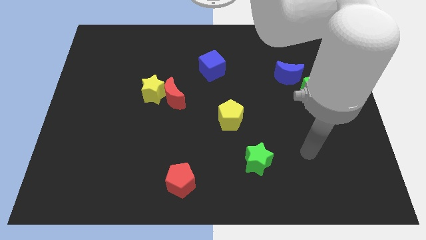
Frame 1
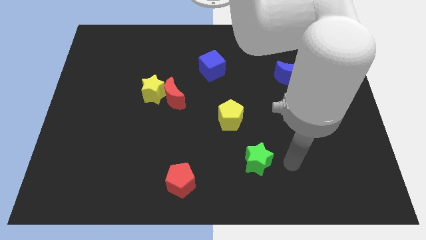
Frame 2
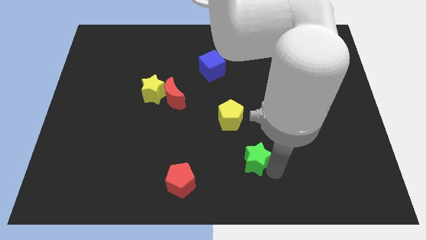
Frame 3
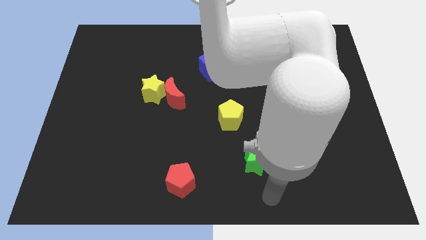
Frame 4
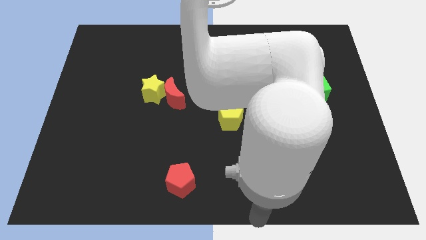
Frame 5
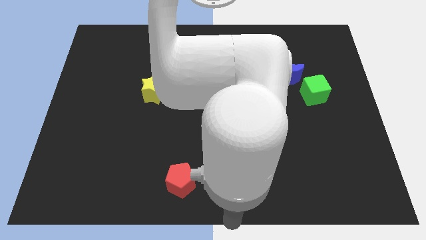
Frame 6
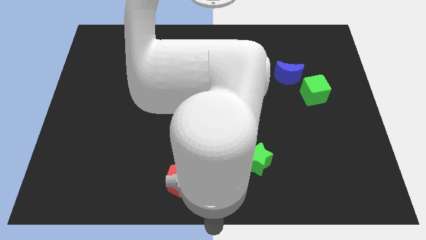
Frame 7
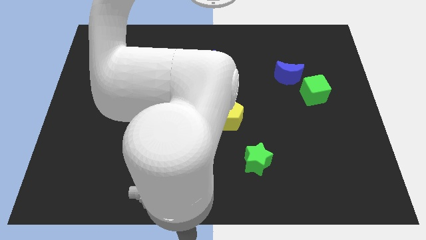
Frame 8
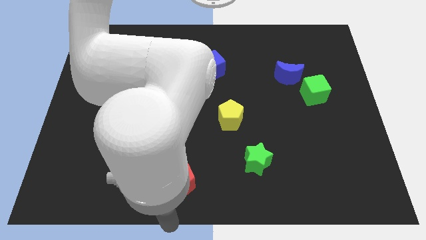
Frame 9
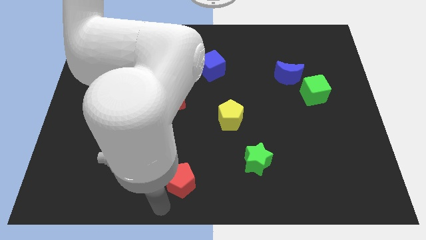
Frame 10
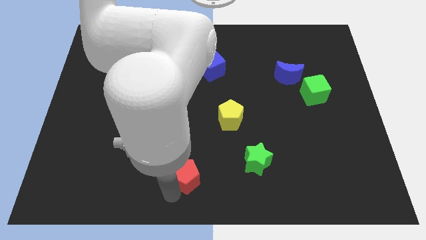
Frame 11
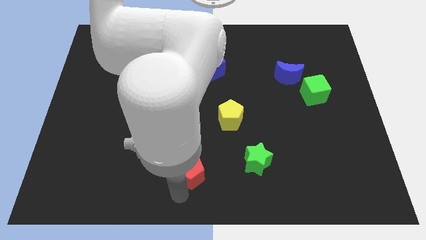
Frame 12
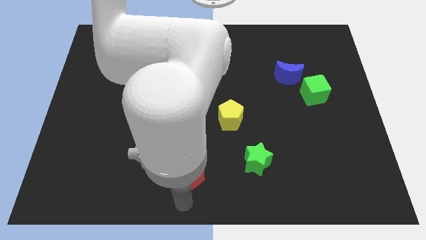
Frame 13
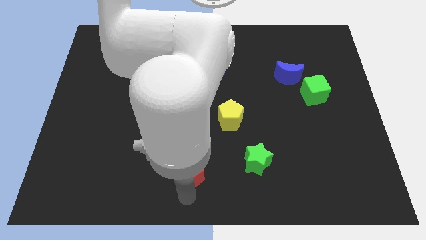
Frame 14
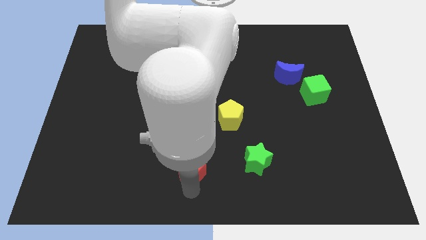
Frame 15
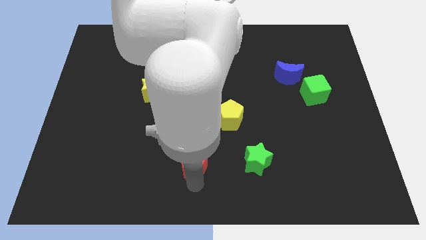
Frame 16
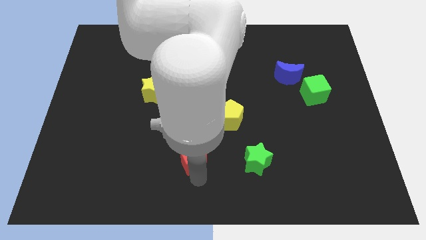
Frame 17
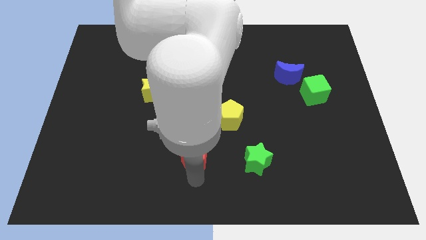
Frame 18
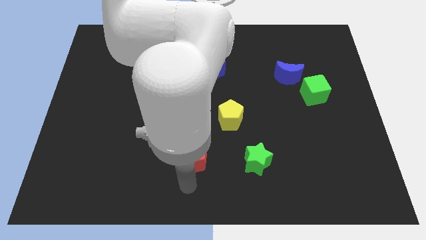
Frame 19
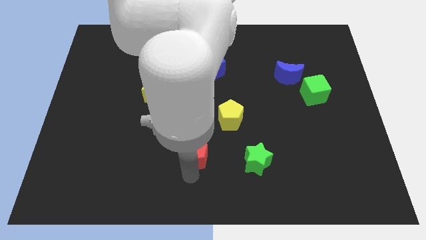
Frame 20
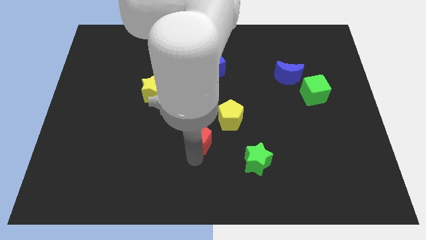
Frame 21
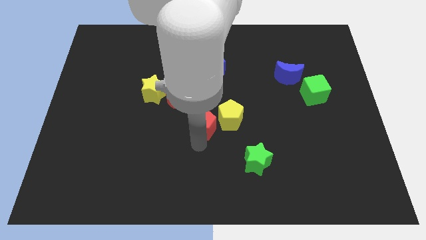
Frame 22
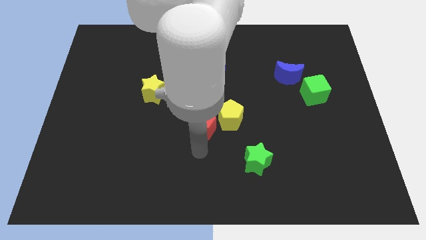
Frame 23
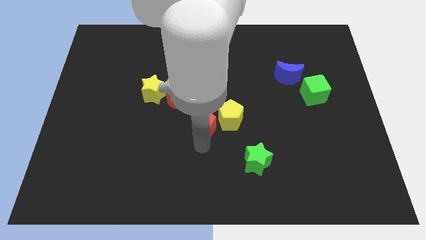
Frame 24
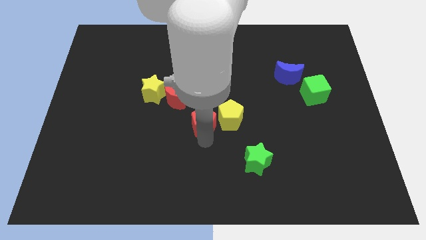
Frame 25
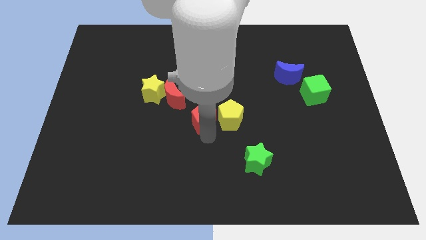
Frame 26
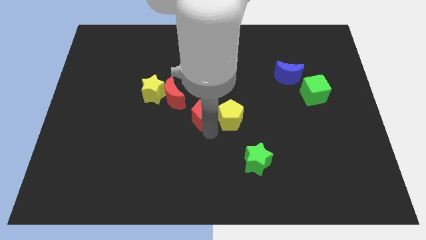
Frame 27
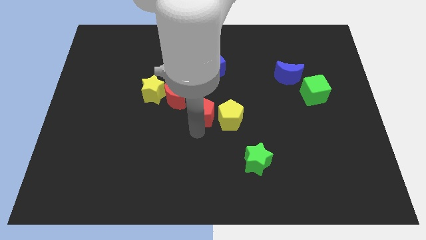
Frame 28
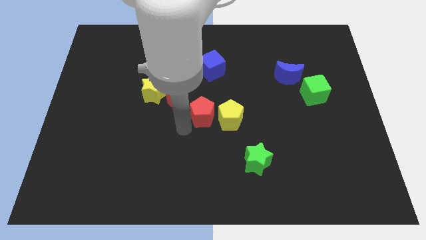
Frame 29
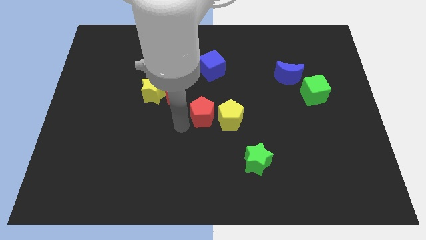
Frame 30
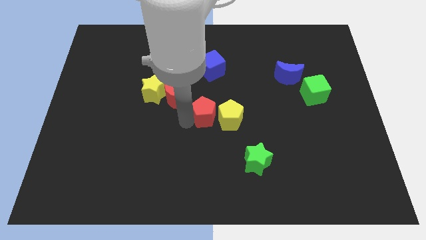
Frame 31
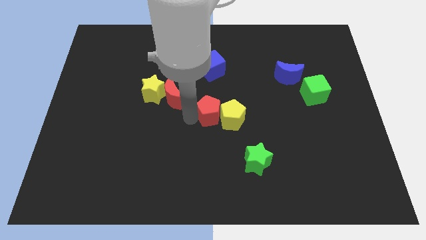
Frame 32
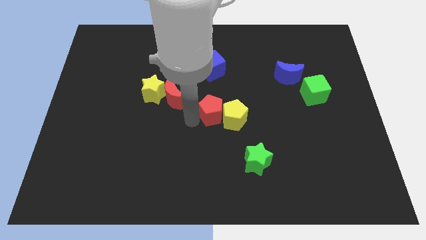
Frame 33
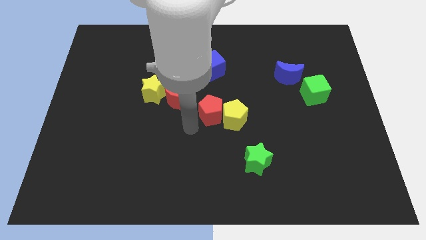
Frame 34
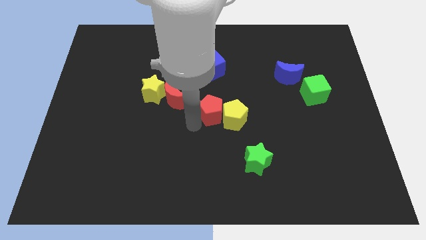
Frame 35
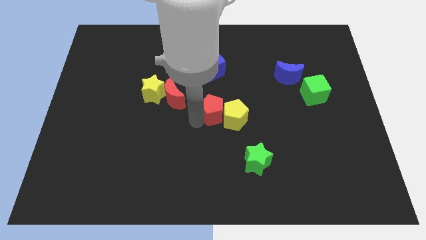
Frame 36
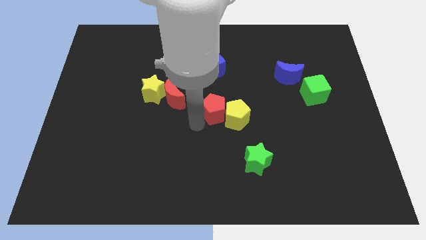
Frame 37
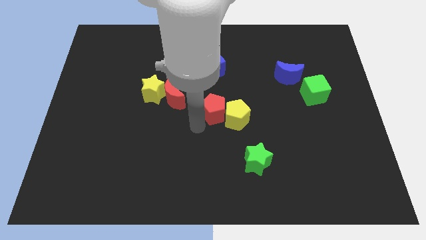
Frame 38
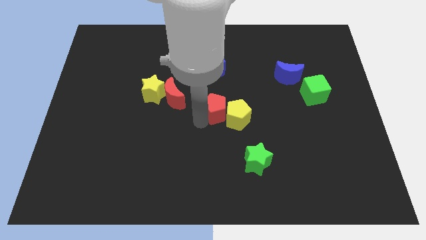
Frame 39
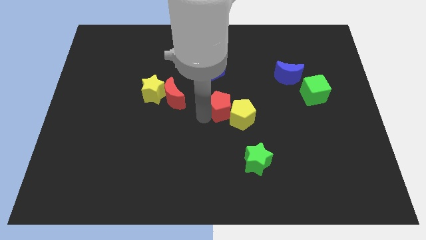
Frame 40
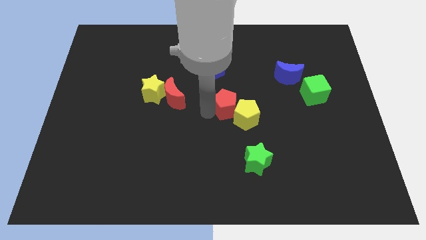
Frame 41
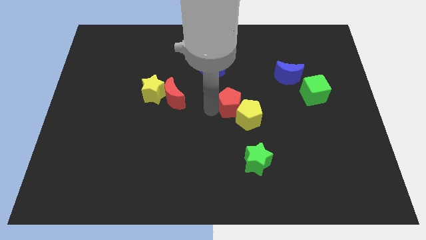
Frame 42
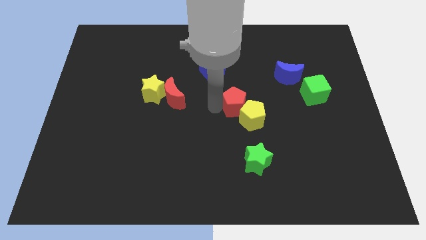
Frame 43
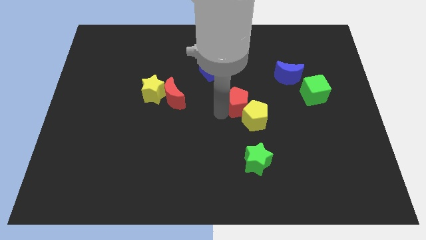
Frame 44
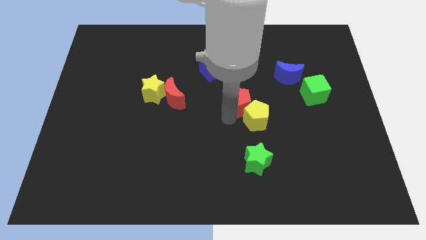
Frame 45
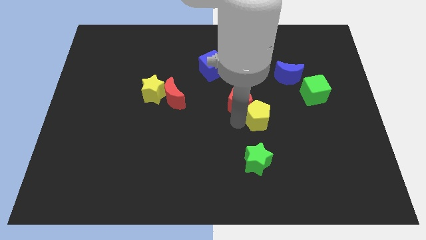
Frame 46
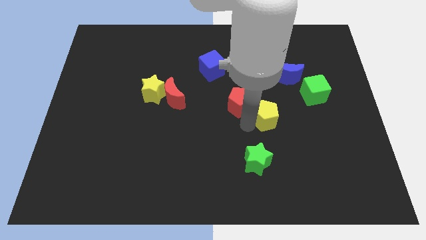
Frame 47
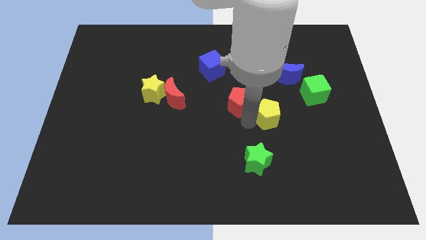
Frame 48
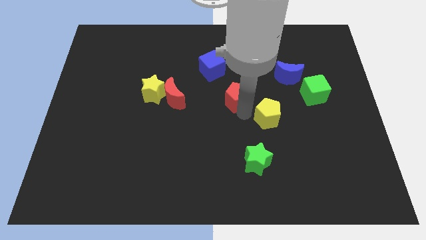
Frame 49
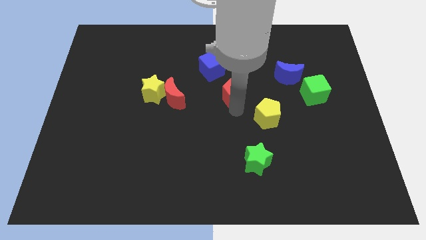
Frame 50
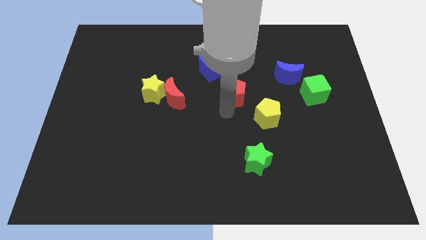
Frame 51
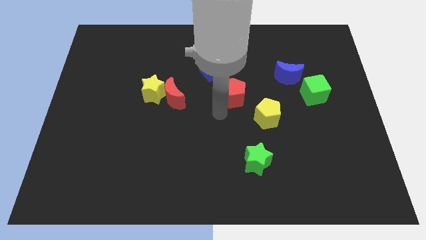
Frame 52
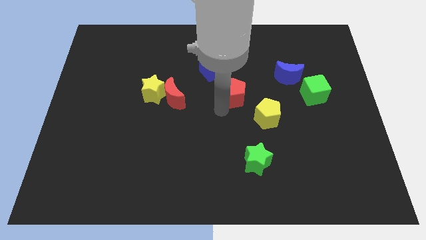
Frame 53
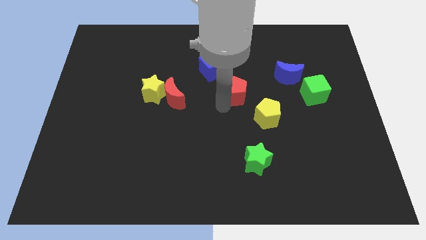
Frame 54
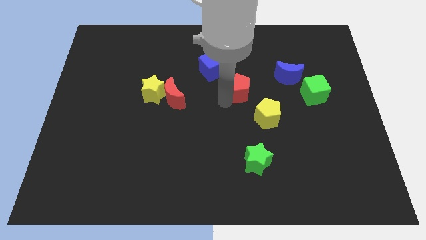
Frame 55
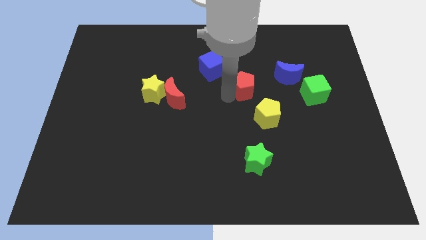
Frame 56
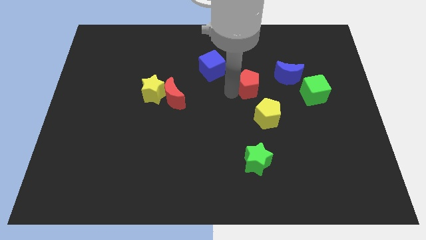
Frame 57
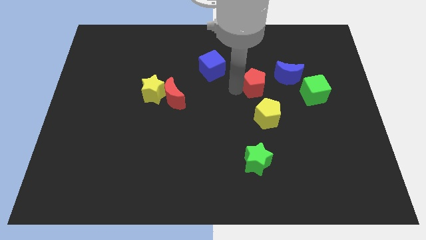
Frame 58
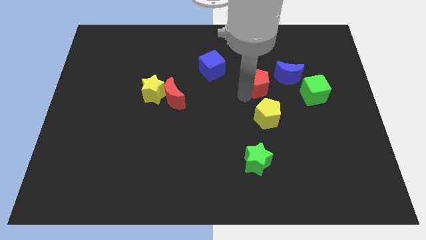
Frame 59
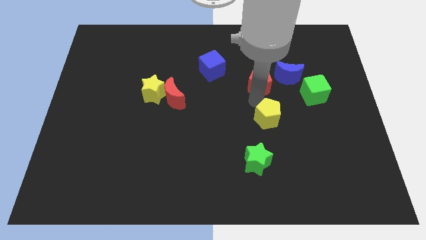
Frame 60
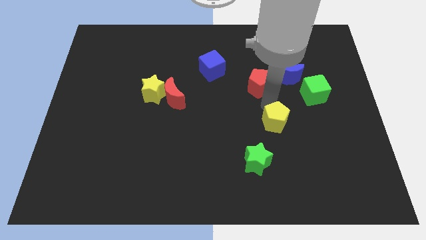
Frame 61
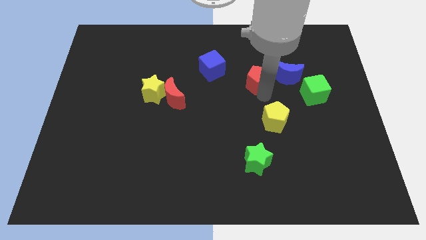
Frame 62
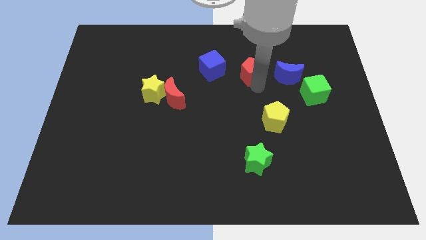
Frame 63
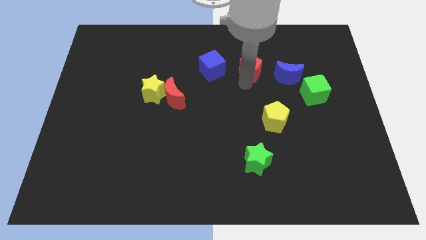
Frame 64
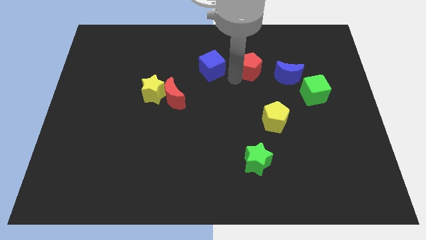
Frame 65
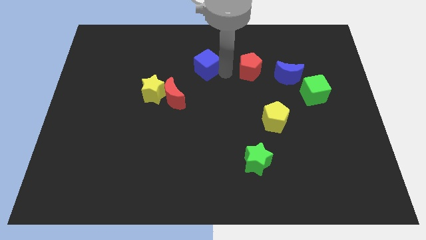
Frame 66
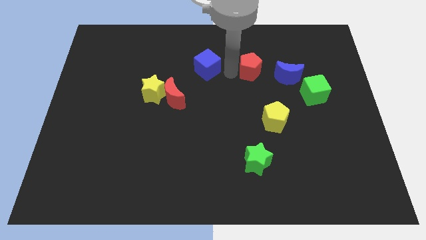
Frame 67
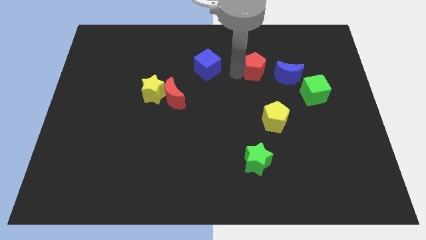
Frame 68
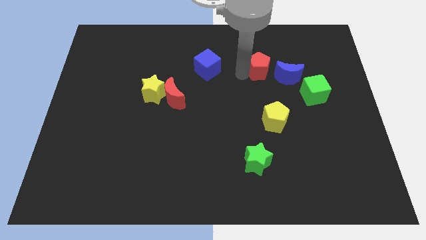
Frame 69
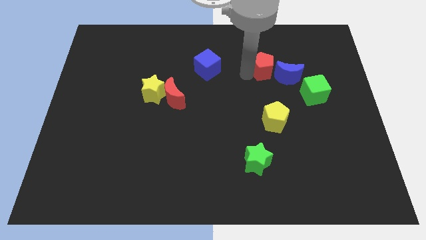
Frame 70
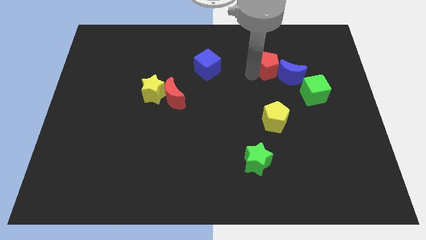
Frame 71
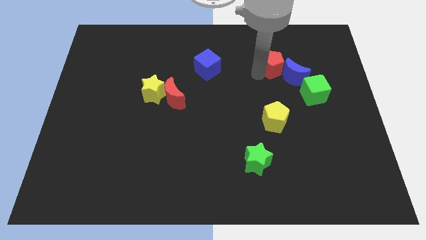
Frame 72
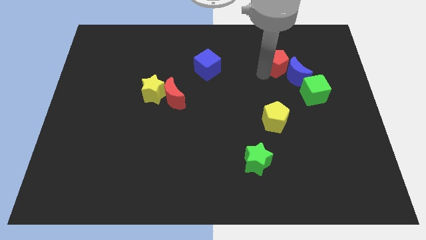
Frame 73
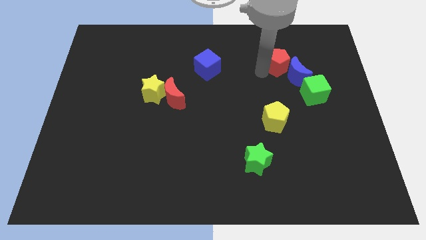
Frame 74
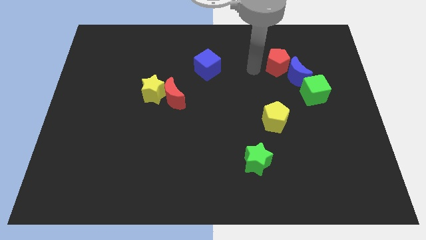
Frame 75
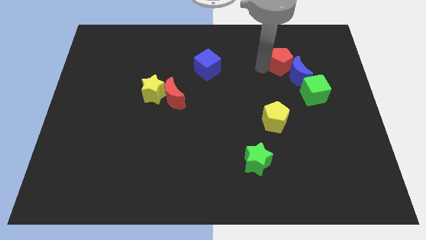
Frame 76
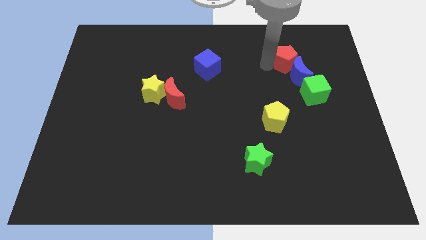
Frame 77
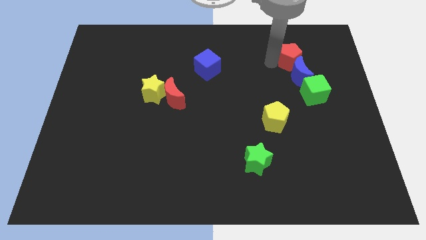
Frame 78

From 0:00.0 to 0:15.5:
slide the red pentagon above the green cube
